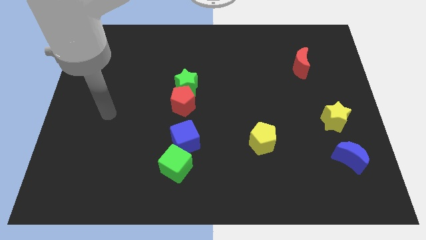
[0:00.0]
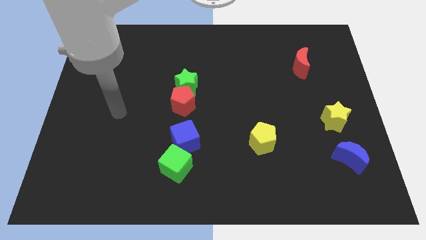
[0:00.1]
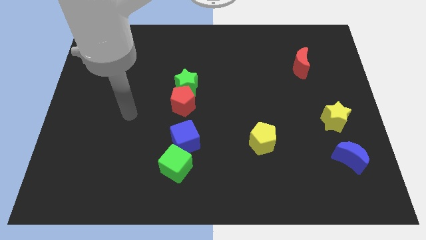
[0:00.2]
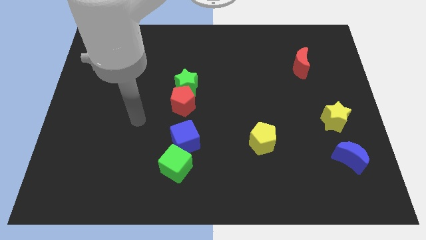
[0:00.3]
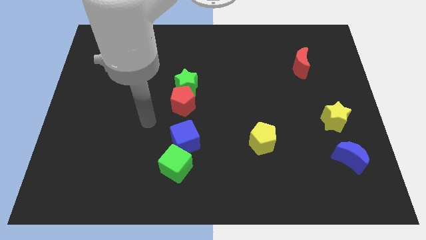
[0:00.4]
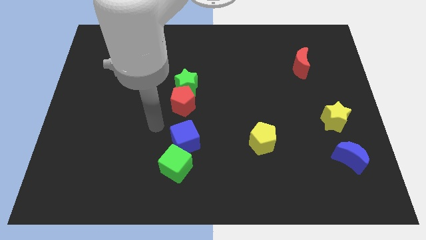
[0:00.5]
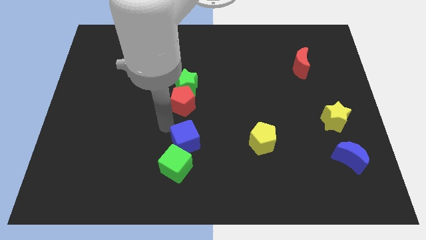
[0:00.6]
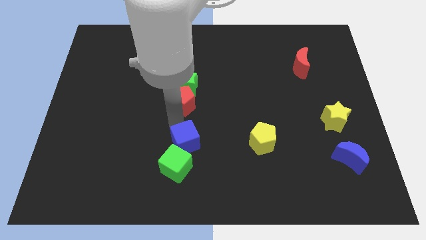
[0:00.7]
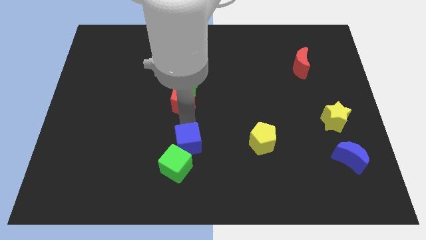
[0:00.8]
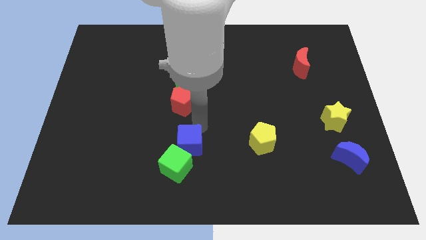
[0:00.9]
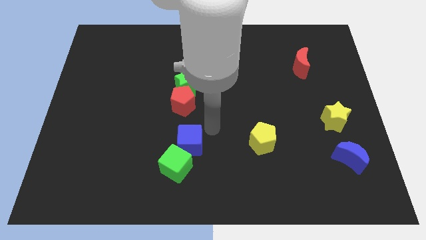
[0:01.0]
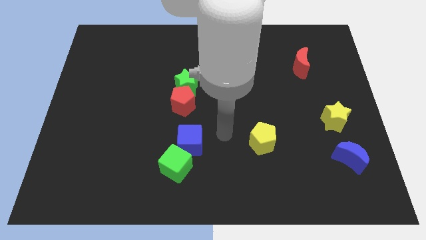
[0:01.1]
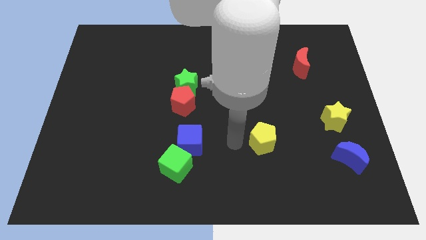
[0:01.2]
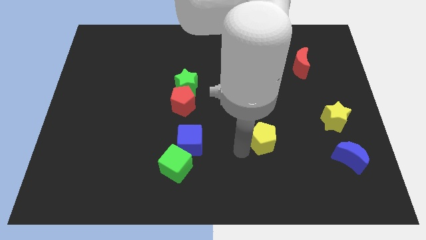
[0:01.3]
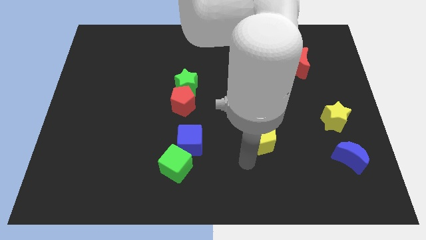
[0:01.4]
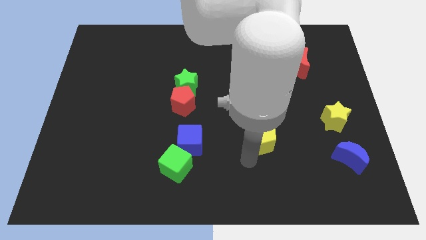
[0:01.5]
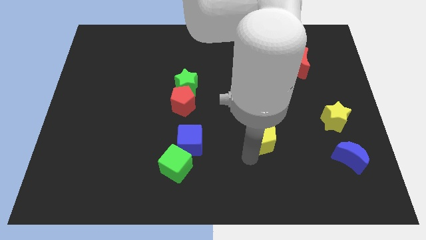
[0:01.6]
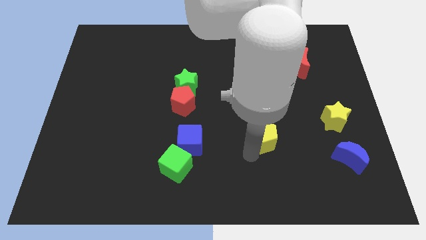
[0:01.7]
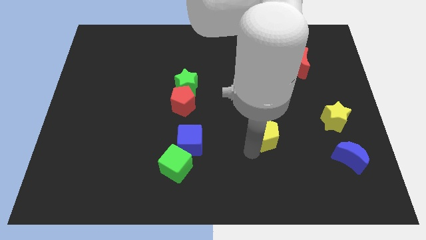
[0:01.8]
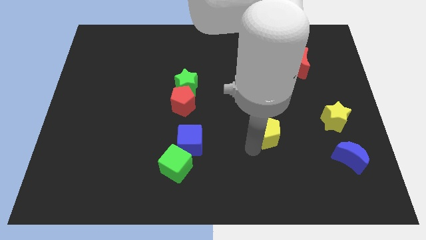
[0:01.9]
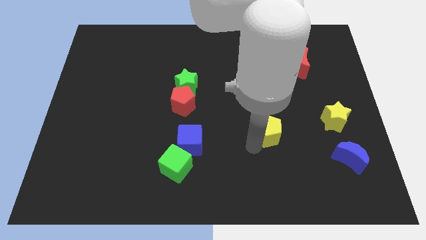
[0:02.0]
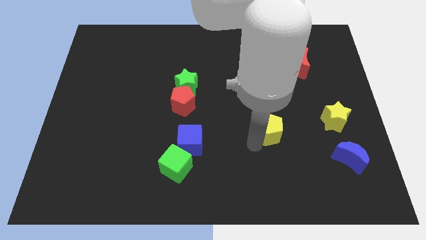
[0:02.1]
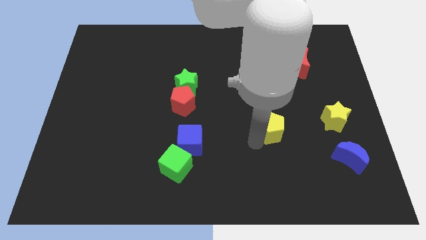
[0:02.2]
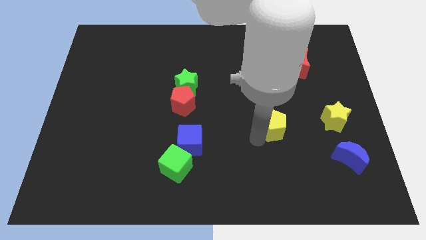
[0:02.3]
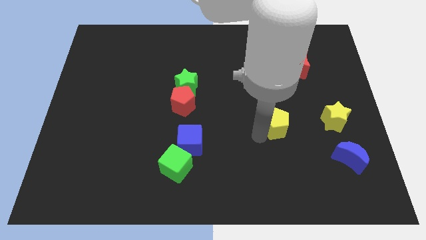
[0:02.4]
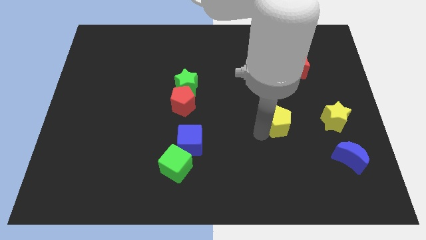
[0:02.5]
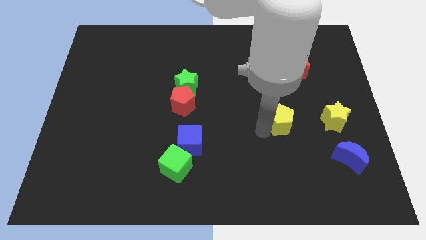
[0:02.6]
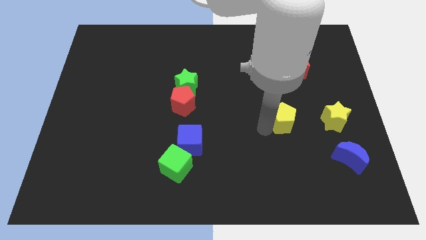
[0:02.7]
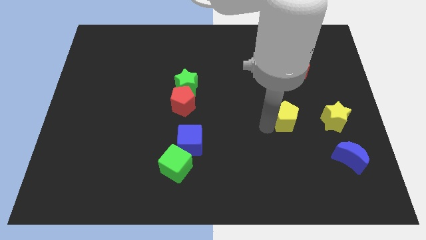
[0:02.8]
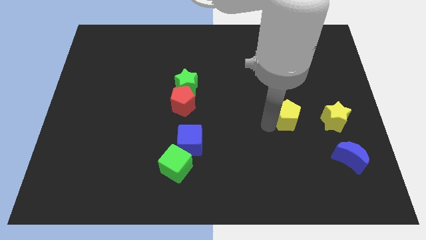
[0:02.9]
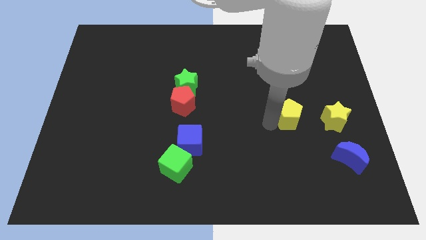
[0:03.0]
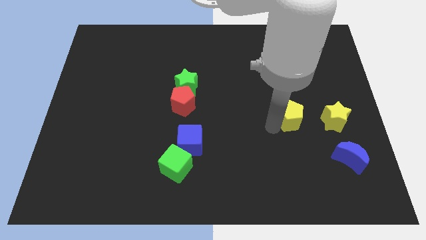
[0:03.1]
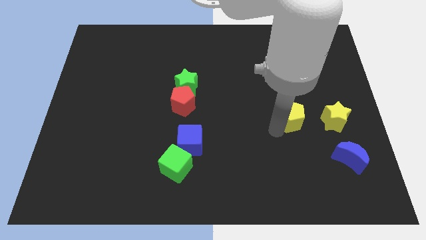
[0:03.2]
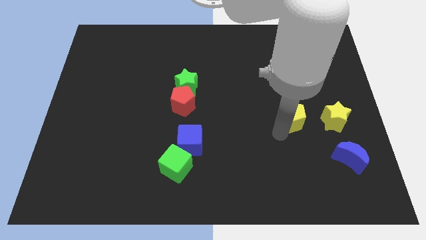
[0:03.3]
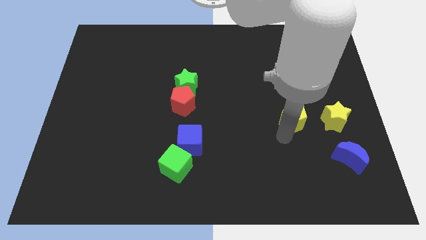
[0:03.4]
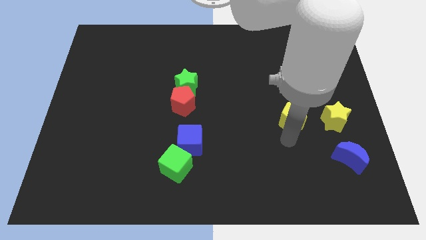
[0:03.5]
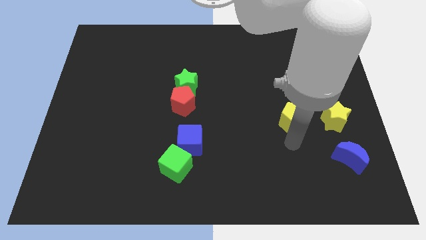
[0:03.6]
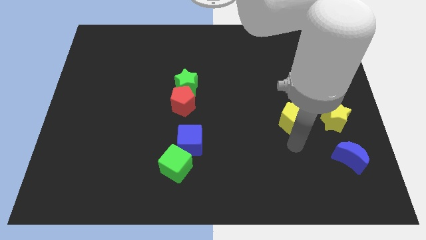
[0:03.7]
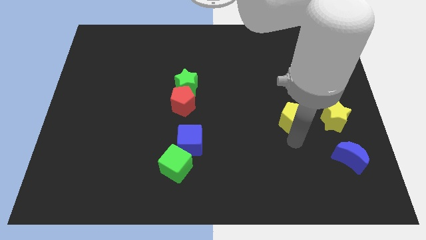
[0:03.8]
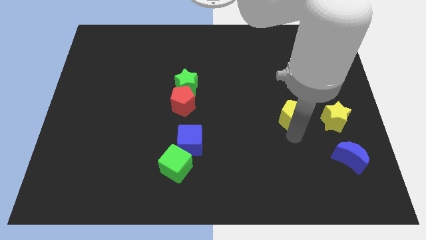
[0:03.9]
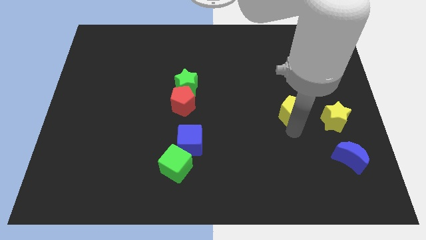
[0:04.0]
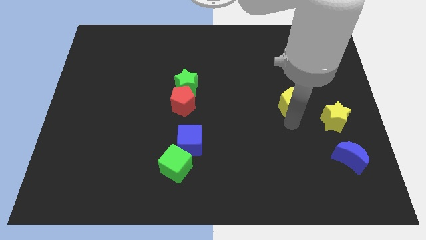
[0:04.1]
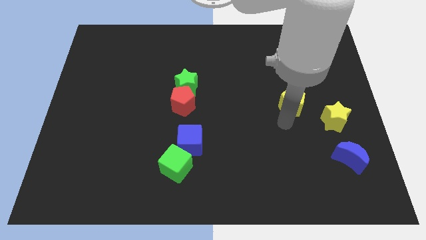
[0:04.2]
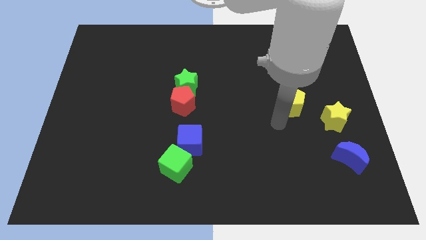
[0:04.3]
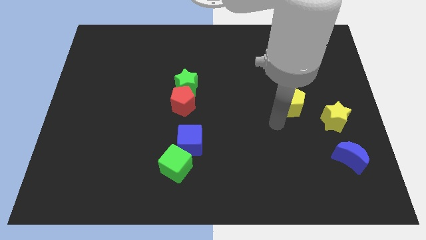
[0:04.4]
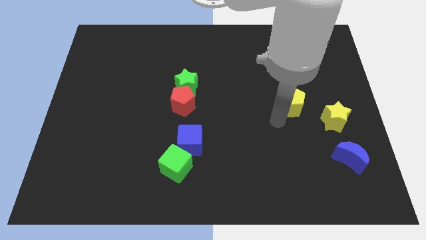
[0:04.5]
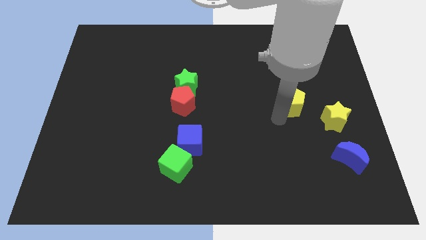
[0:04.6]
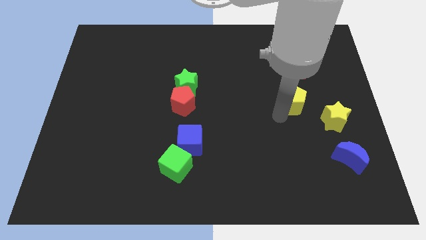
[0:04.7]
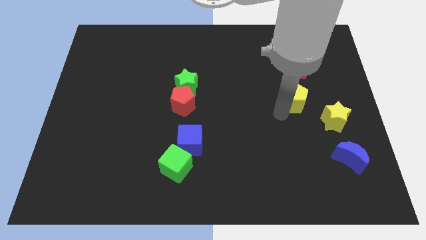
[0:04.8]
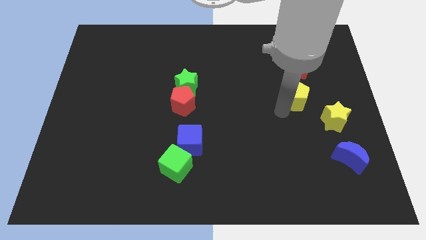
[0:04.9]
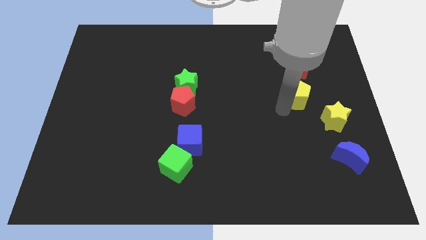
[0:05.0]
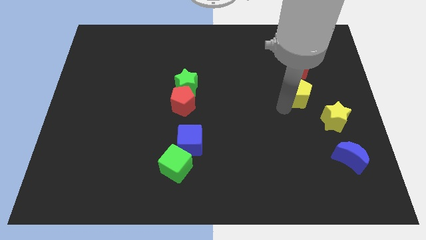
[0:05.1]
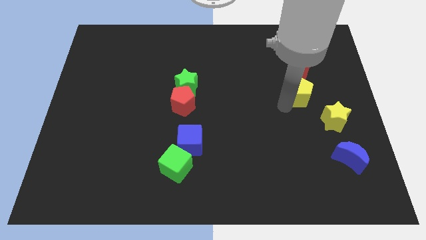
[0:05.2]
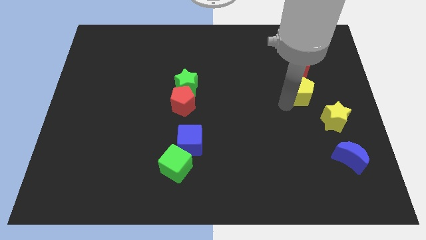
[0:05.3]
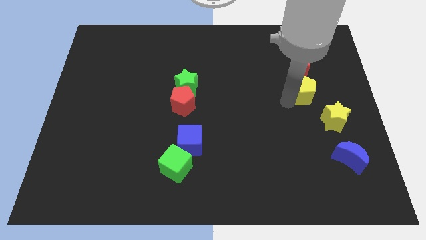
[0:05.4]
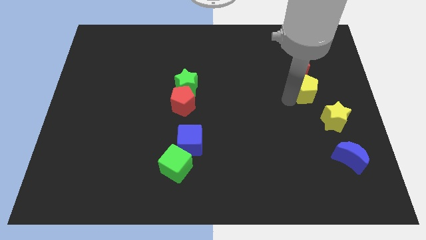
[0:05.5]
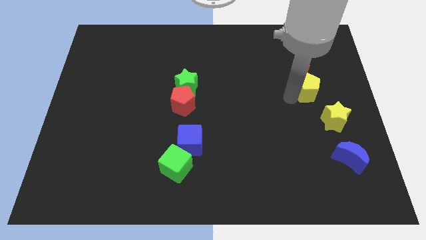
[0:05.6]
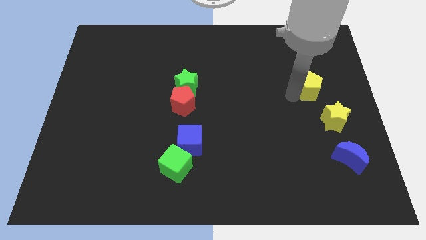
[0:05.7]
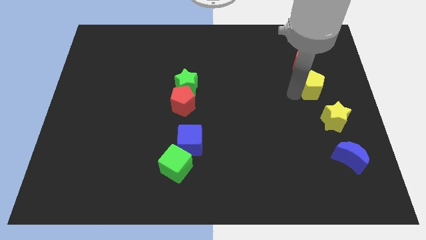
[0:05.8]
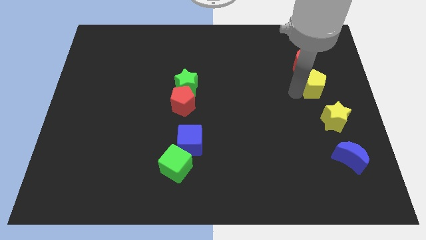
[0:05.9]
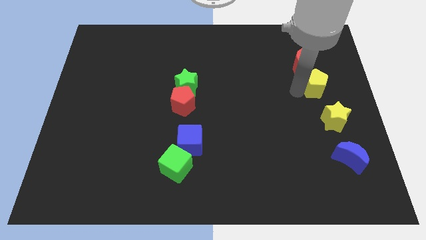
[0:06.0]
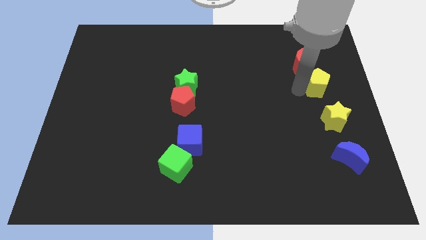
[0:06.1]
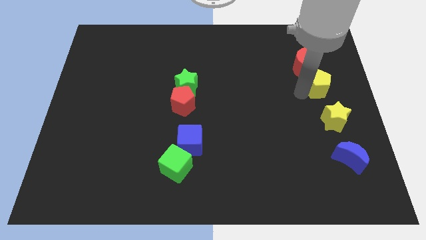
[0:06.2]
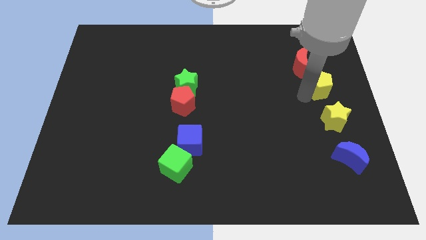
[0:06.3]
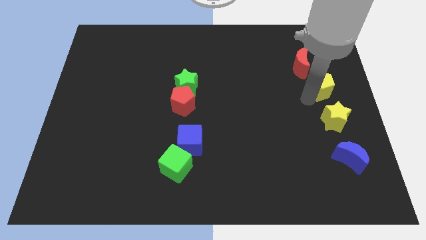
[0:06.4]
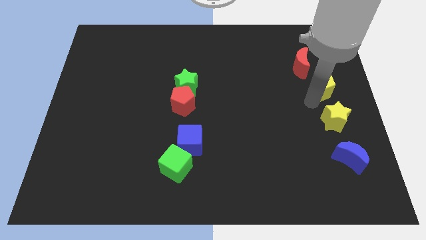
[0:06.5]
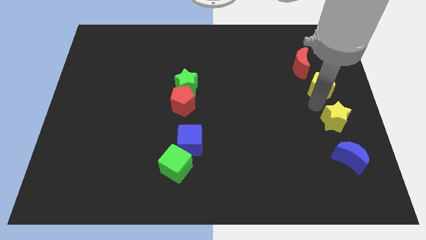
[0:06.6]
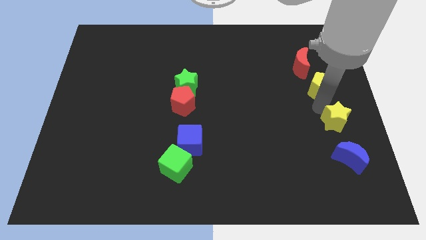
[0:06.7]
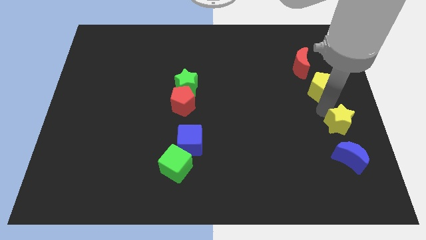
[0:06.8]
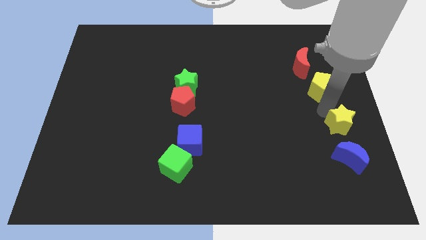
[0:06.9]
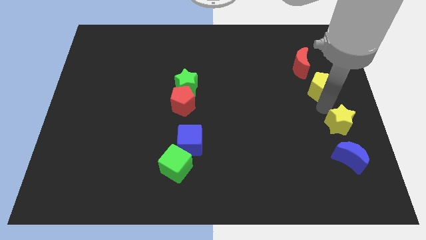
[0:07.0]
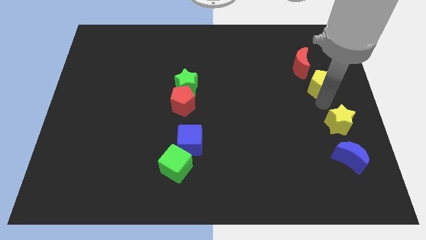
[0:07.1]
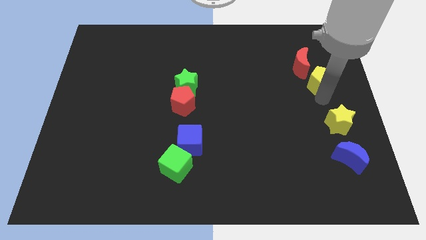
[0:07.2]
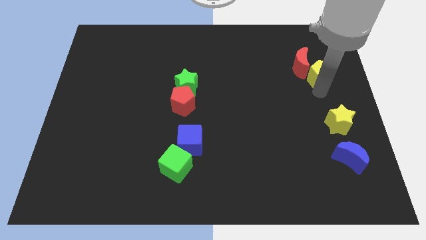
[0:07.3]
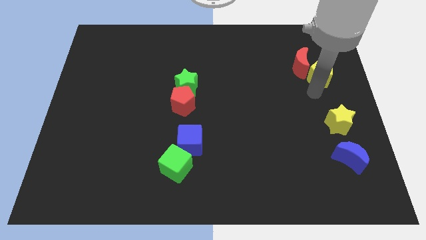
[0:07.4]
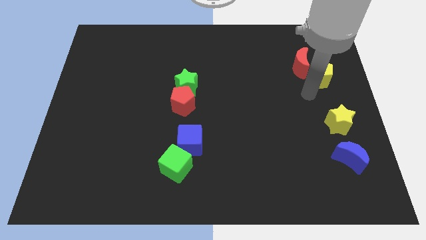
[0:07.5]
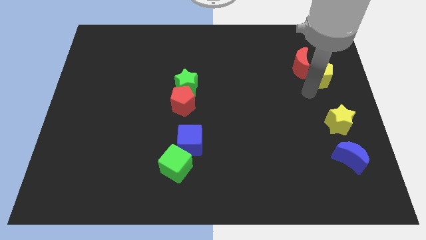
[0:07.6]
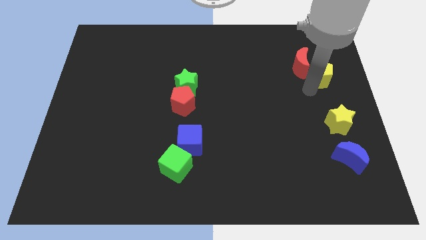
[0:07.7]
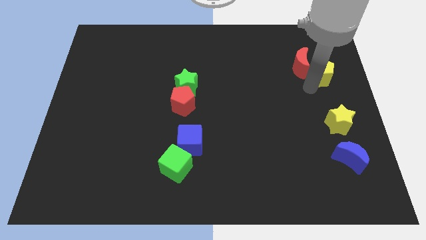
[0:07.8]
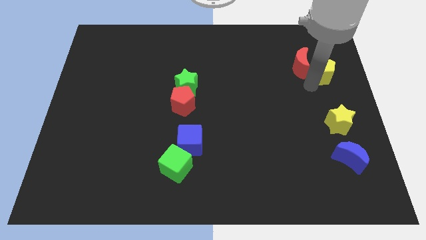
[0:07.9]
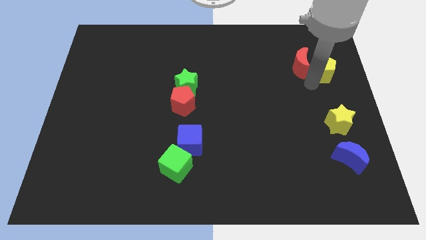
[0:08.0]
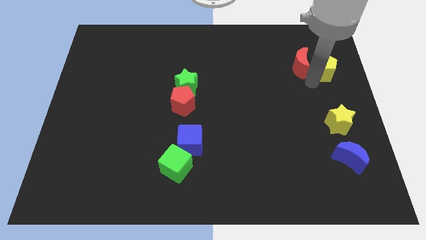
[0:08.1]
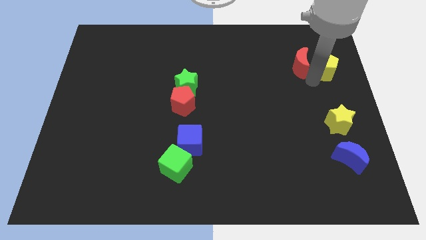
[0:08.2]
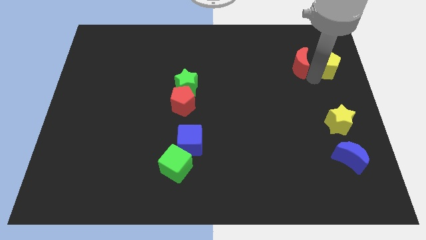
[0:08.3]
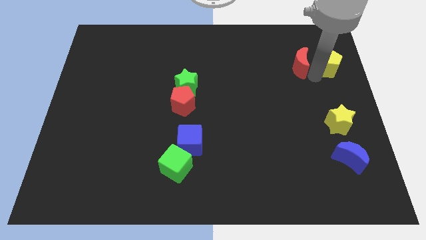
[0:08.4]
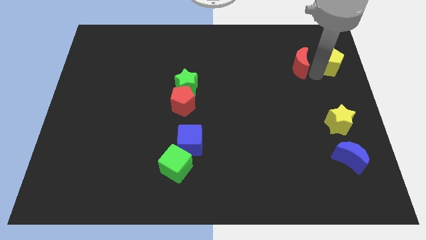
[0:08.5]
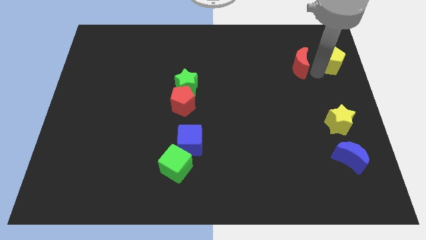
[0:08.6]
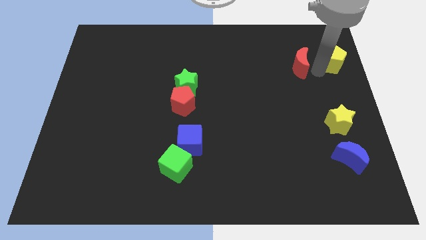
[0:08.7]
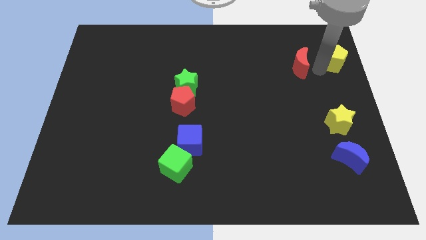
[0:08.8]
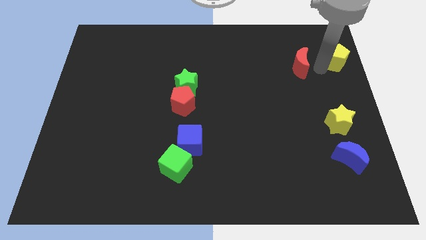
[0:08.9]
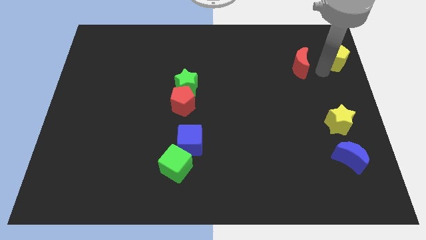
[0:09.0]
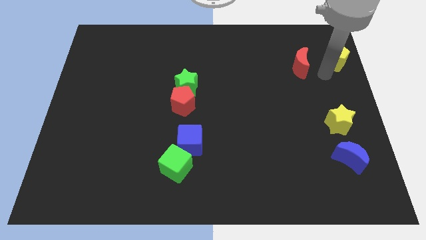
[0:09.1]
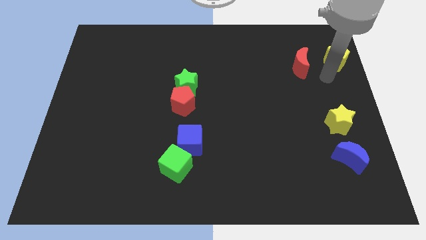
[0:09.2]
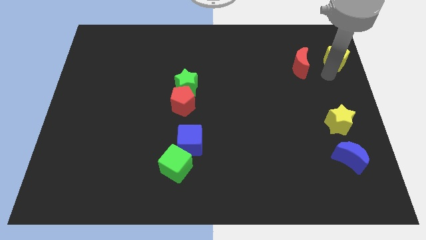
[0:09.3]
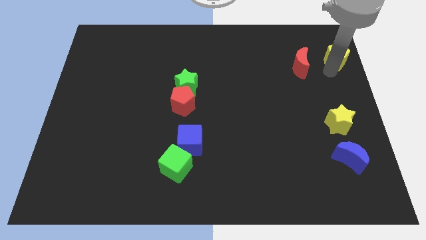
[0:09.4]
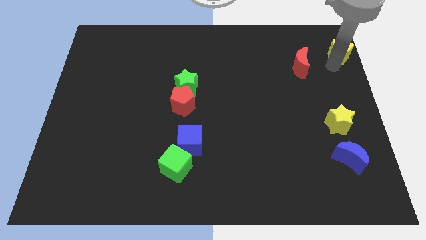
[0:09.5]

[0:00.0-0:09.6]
move the yellow pentagon to the top right
